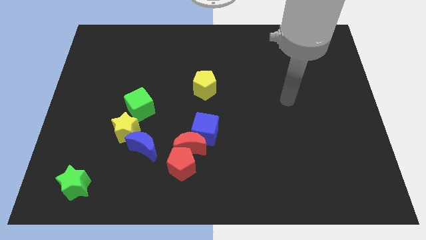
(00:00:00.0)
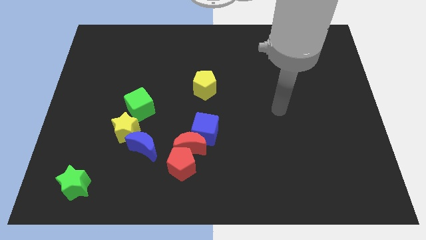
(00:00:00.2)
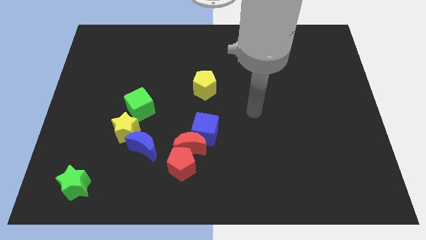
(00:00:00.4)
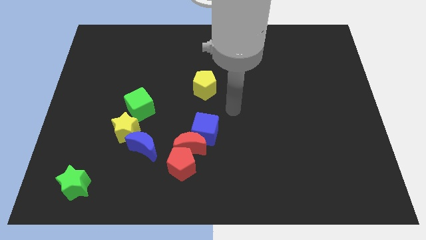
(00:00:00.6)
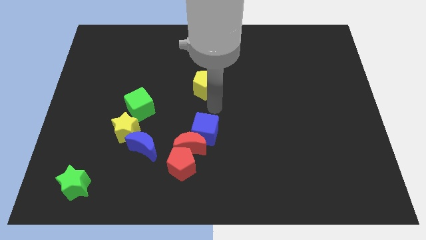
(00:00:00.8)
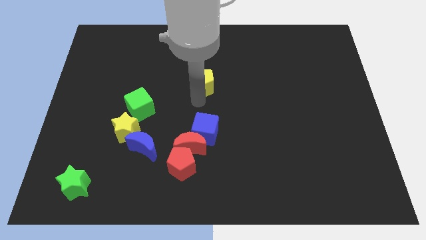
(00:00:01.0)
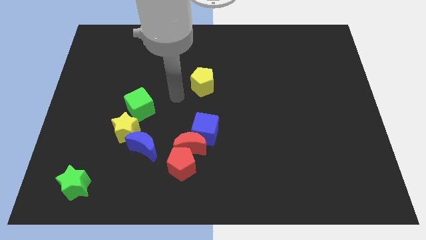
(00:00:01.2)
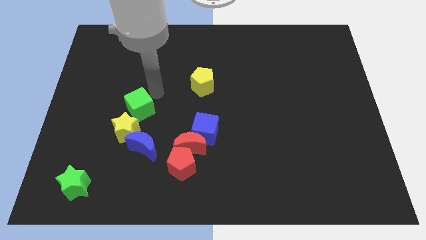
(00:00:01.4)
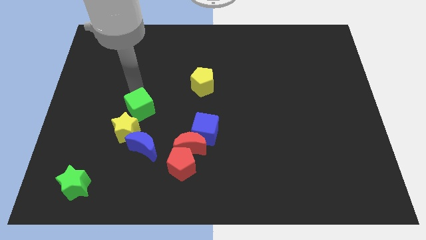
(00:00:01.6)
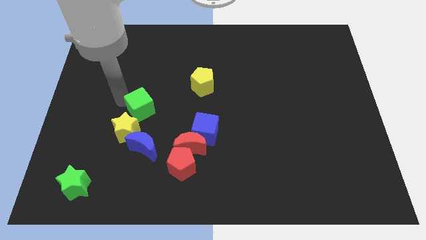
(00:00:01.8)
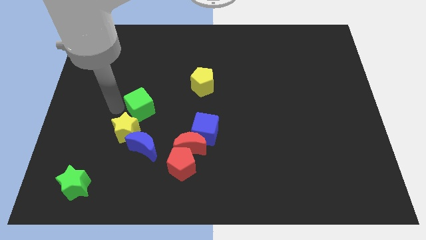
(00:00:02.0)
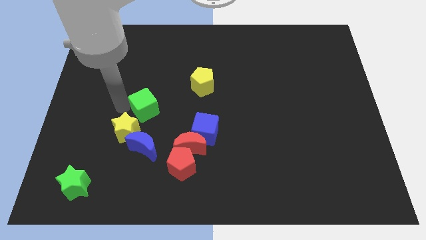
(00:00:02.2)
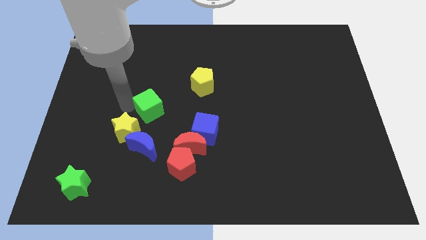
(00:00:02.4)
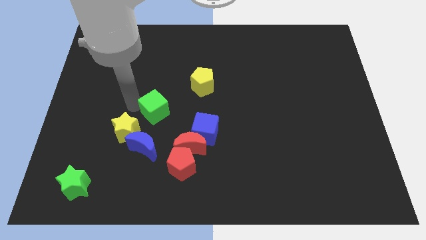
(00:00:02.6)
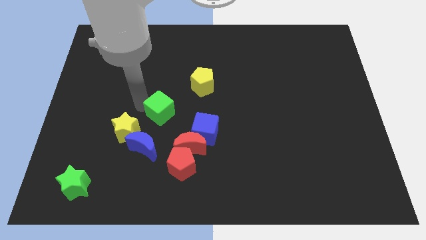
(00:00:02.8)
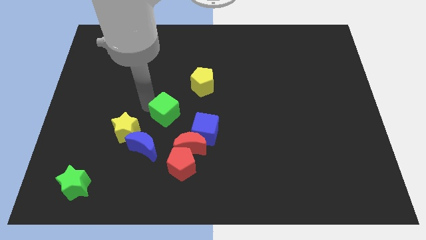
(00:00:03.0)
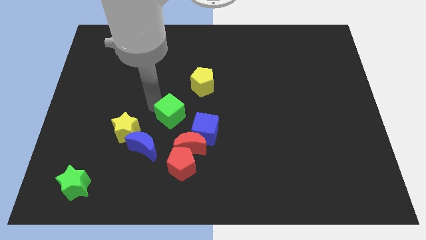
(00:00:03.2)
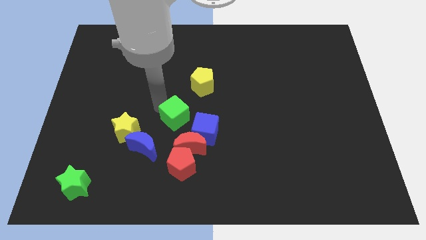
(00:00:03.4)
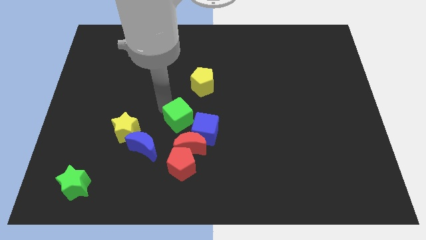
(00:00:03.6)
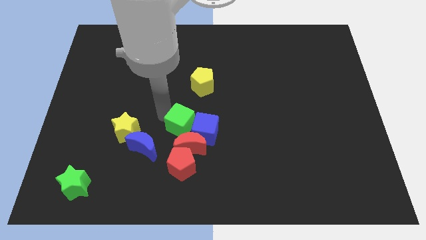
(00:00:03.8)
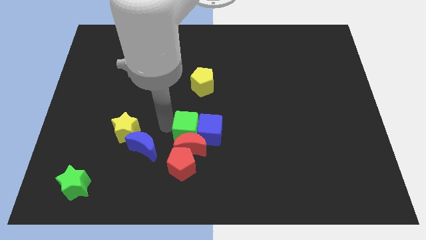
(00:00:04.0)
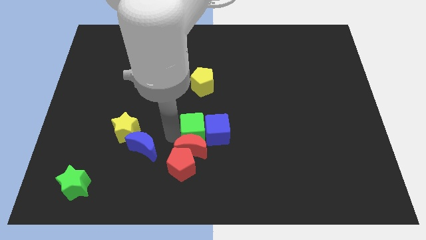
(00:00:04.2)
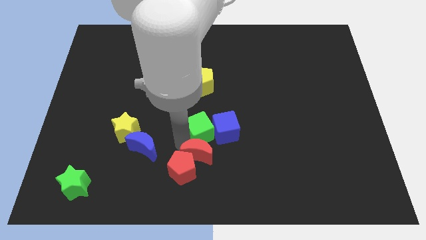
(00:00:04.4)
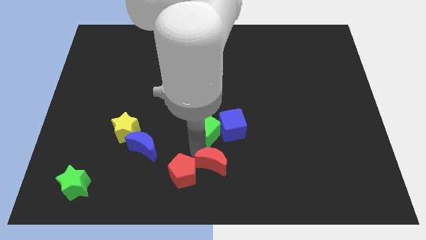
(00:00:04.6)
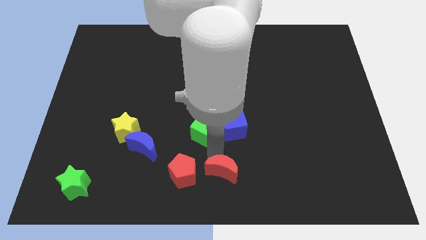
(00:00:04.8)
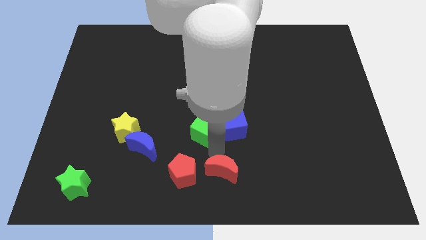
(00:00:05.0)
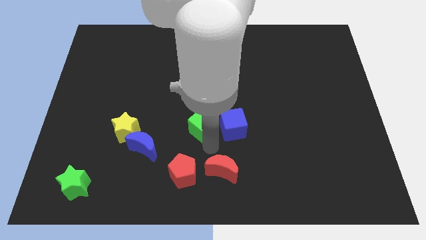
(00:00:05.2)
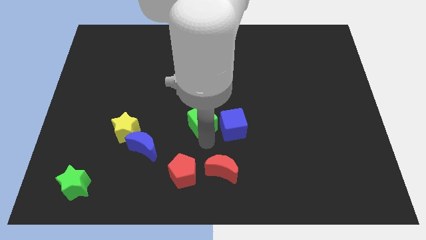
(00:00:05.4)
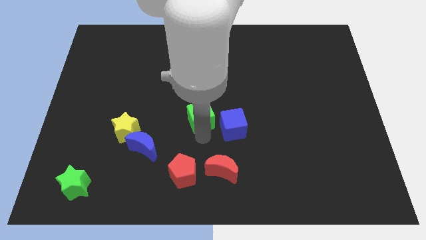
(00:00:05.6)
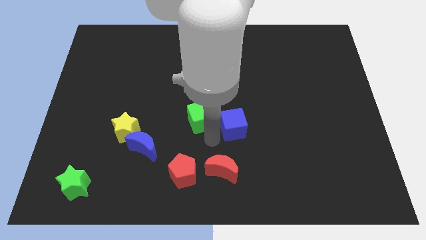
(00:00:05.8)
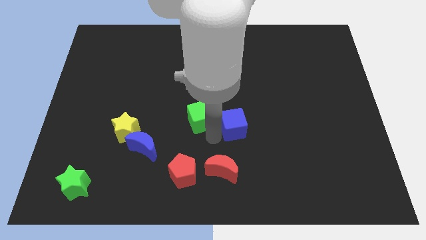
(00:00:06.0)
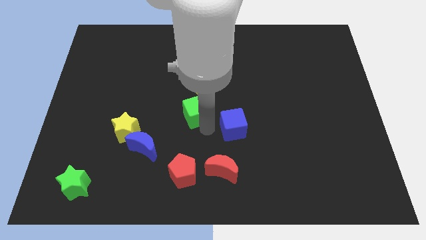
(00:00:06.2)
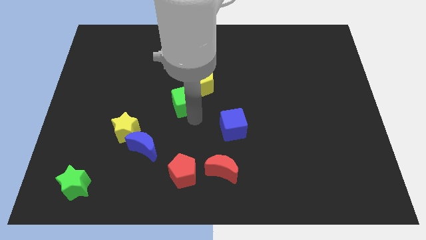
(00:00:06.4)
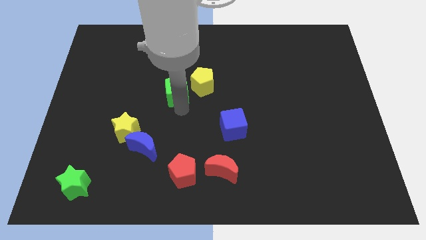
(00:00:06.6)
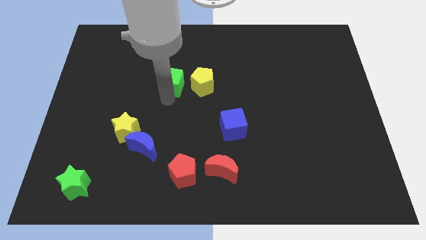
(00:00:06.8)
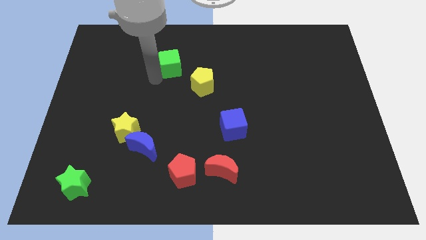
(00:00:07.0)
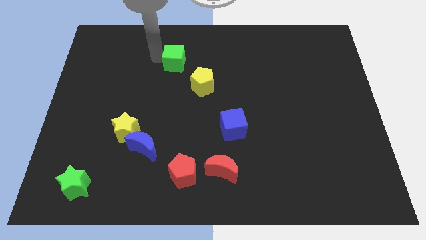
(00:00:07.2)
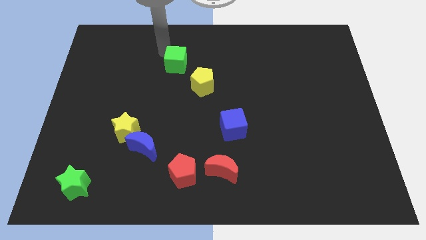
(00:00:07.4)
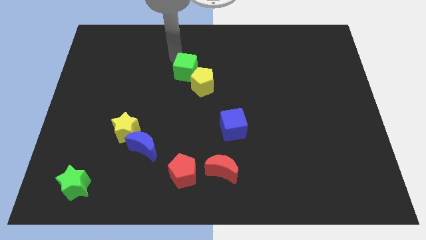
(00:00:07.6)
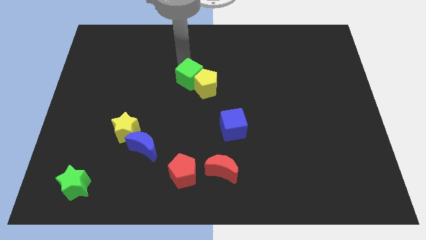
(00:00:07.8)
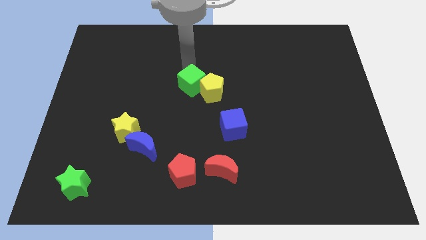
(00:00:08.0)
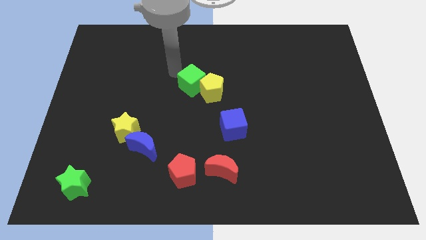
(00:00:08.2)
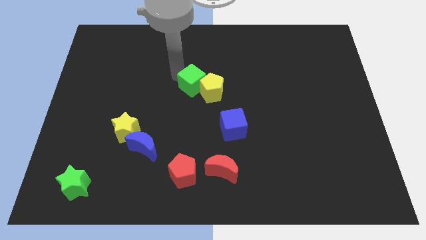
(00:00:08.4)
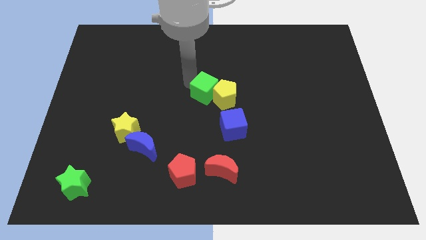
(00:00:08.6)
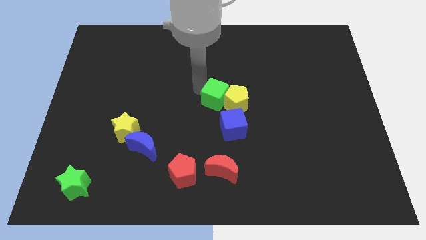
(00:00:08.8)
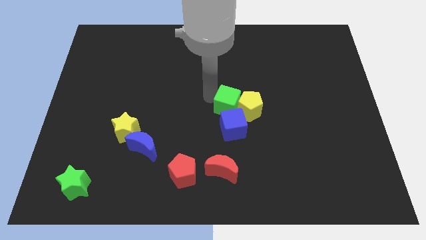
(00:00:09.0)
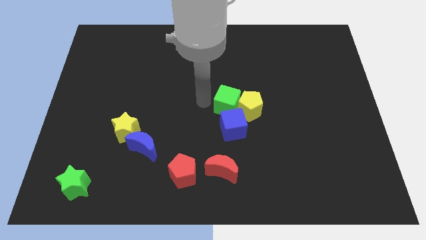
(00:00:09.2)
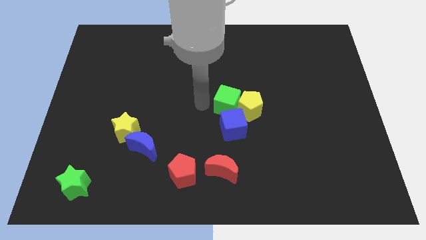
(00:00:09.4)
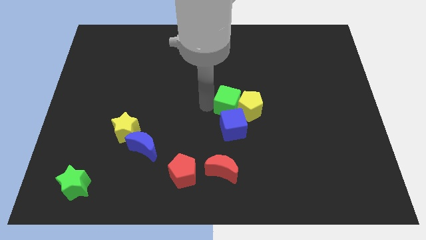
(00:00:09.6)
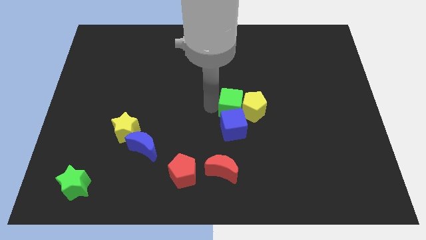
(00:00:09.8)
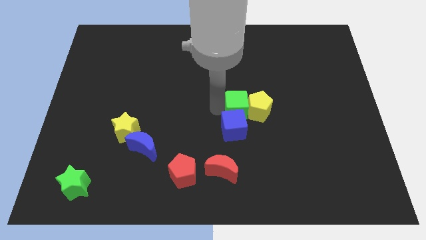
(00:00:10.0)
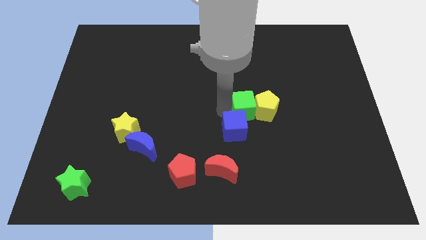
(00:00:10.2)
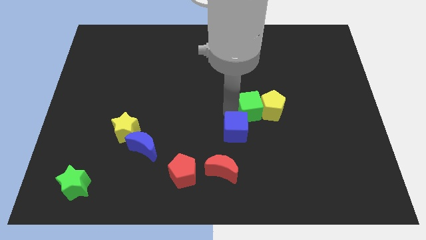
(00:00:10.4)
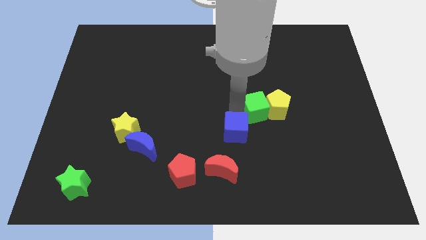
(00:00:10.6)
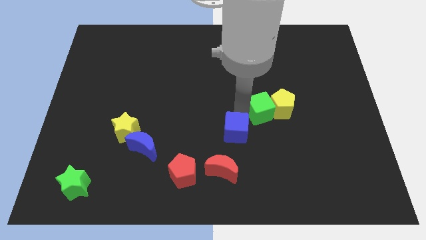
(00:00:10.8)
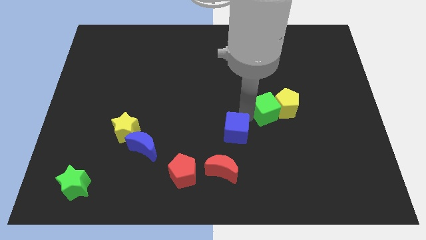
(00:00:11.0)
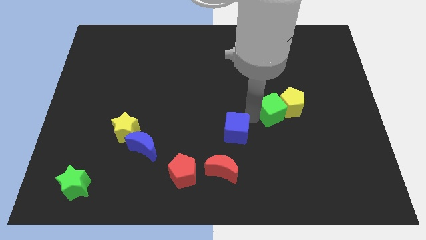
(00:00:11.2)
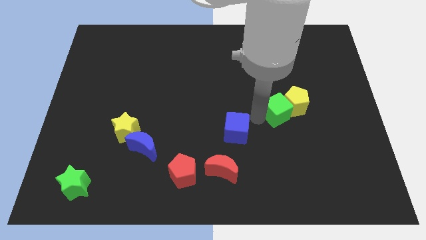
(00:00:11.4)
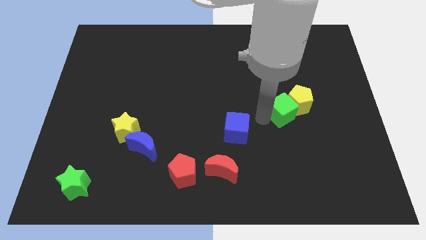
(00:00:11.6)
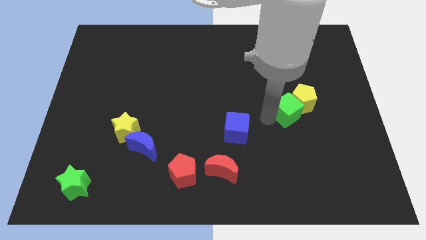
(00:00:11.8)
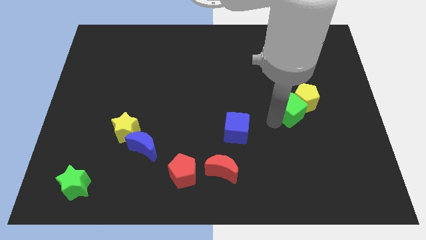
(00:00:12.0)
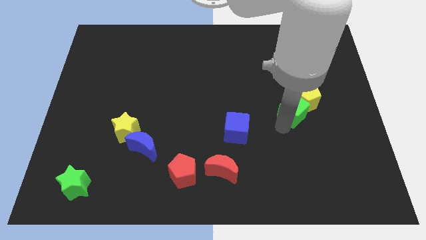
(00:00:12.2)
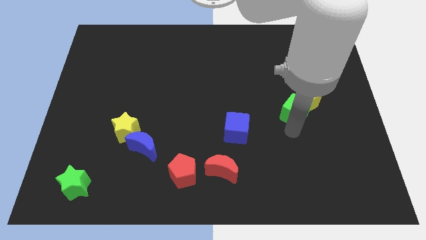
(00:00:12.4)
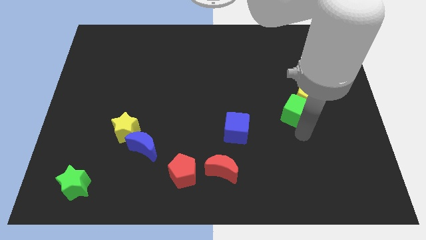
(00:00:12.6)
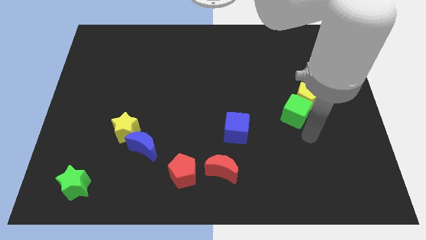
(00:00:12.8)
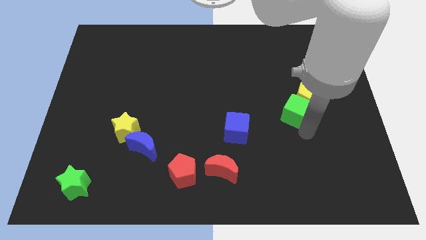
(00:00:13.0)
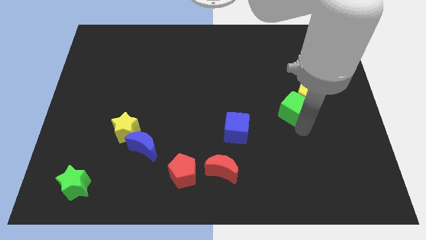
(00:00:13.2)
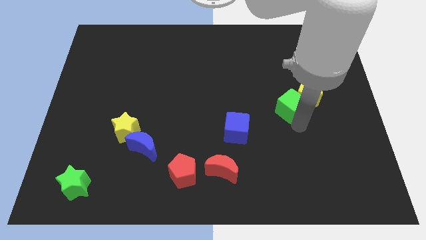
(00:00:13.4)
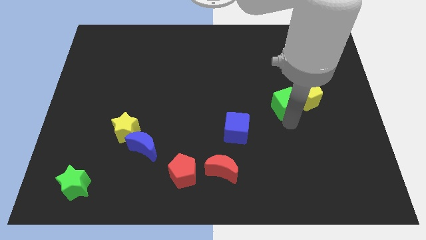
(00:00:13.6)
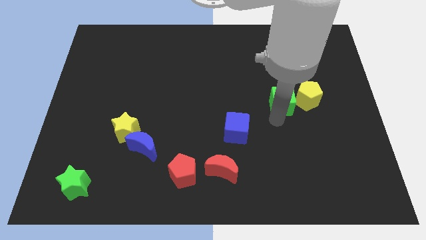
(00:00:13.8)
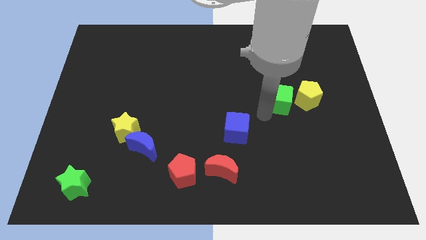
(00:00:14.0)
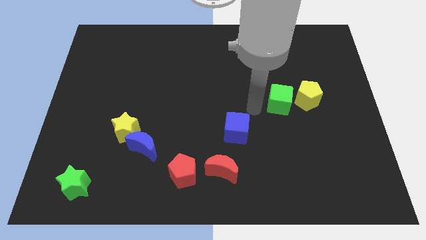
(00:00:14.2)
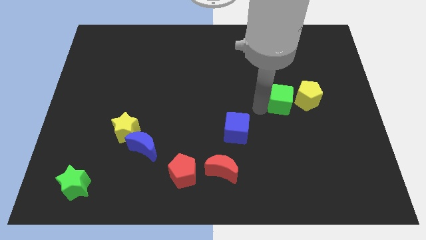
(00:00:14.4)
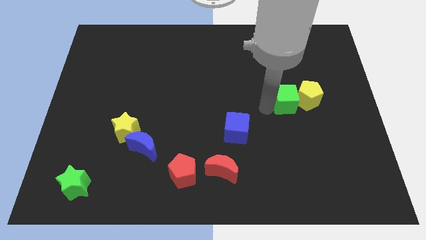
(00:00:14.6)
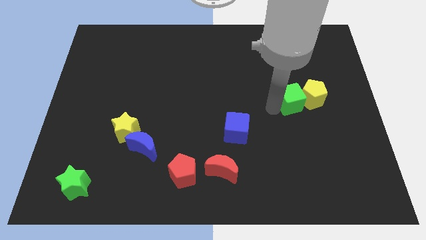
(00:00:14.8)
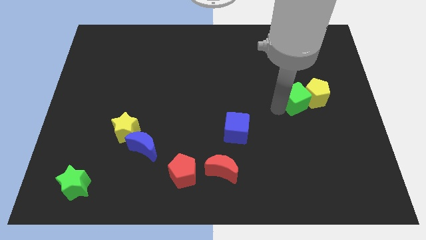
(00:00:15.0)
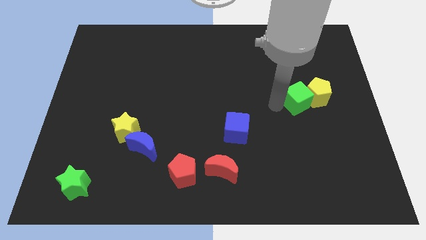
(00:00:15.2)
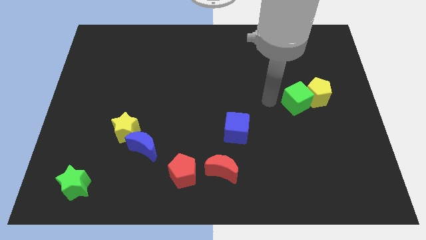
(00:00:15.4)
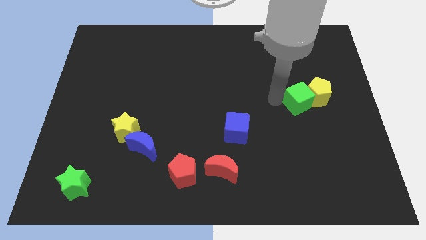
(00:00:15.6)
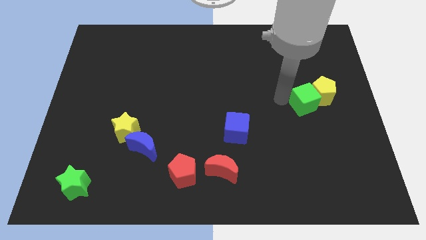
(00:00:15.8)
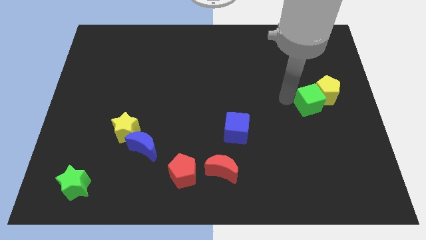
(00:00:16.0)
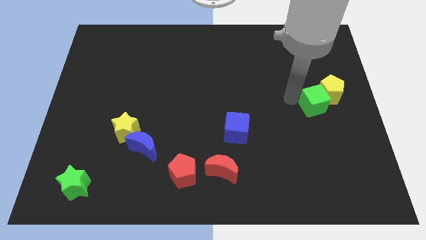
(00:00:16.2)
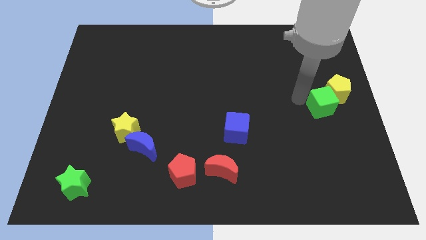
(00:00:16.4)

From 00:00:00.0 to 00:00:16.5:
put the green cube to the right side of the board
